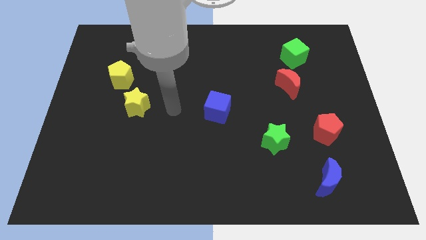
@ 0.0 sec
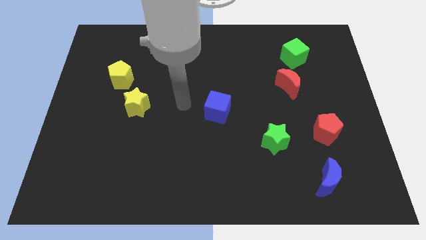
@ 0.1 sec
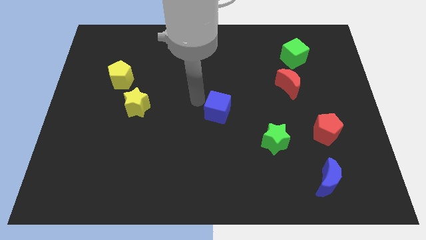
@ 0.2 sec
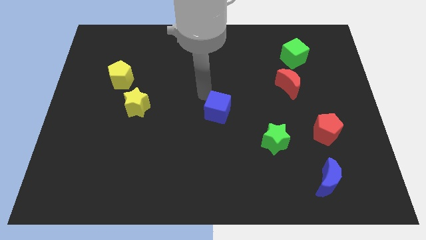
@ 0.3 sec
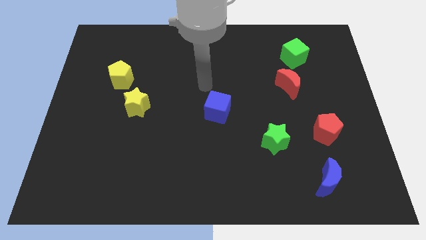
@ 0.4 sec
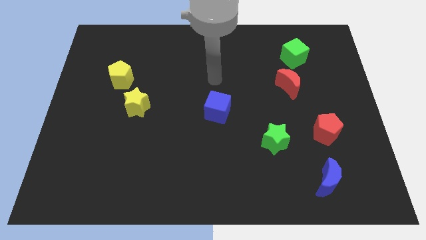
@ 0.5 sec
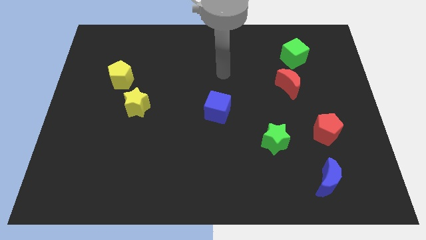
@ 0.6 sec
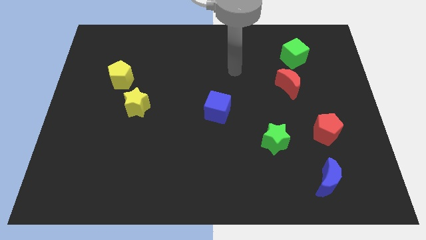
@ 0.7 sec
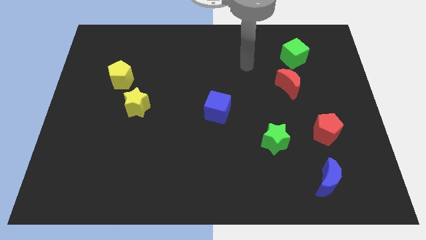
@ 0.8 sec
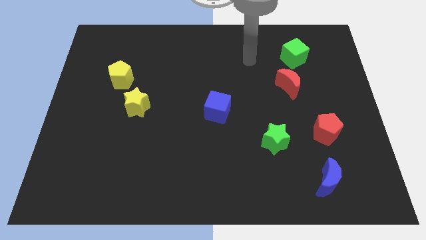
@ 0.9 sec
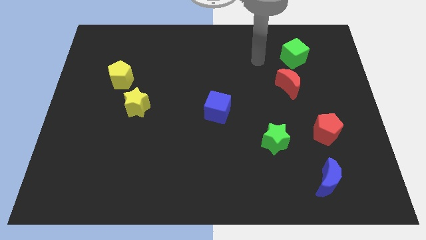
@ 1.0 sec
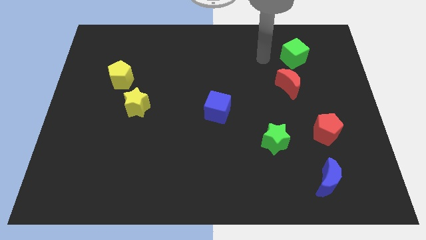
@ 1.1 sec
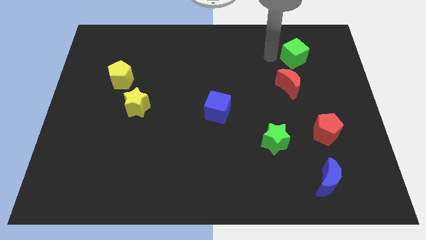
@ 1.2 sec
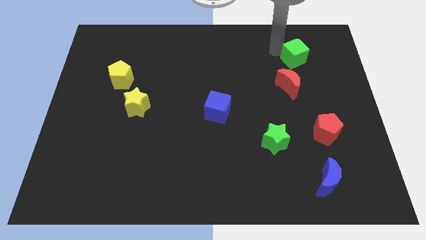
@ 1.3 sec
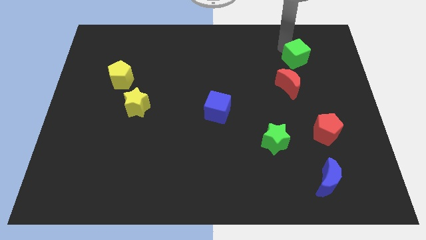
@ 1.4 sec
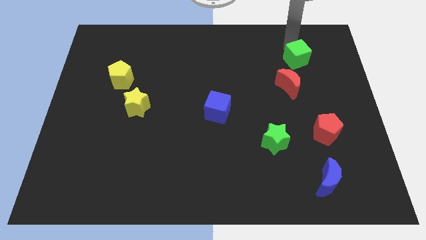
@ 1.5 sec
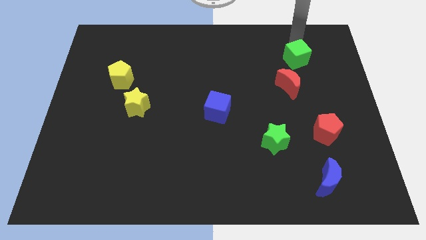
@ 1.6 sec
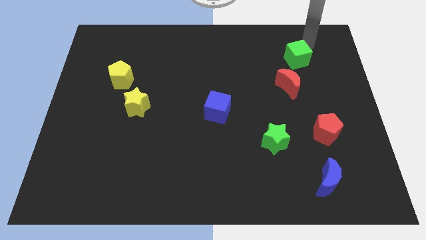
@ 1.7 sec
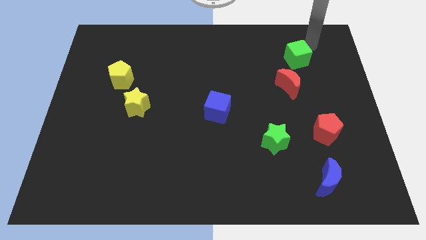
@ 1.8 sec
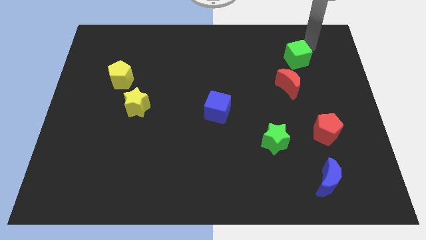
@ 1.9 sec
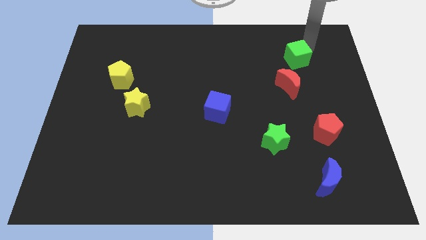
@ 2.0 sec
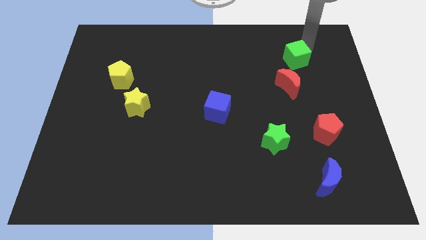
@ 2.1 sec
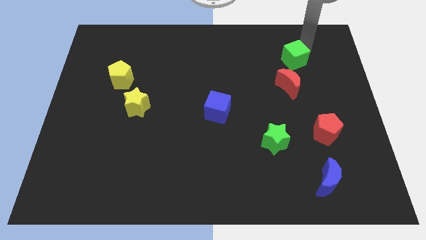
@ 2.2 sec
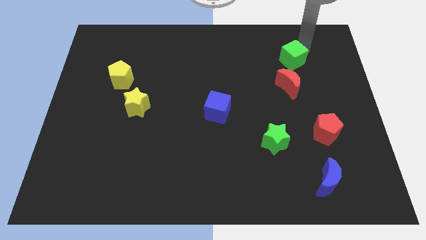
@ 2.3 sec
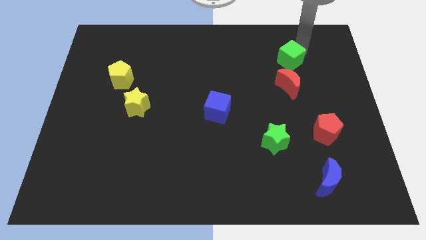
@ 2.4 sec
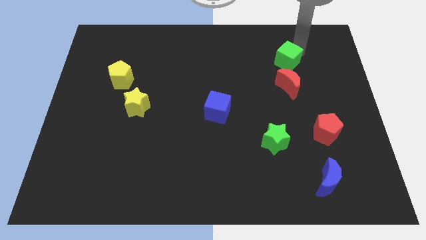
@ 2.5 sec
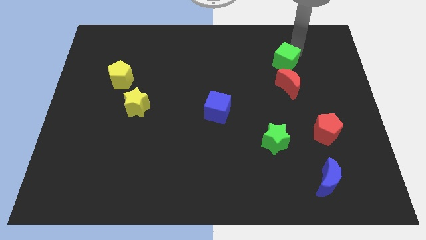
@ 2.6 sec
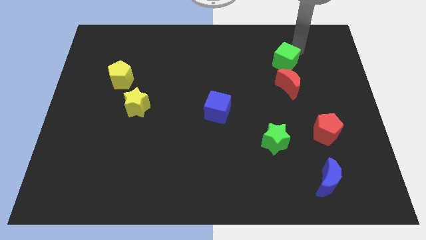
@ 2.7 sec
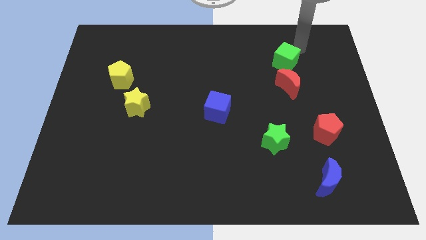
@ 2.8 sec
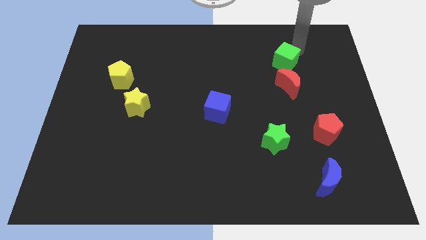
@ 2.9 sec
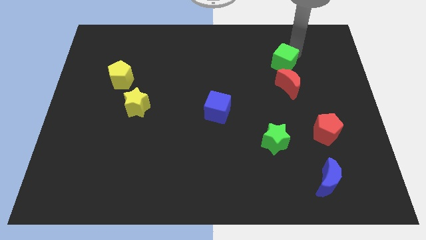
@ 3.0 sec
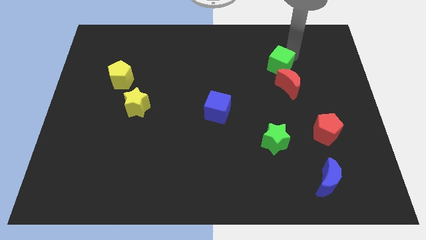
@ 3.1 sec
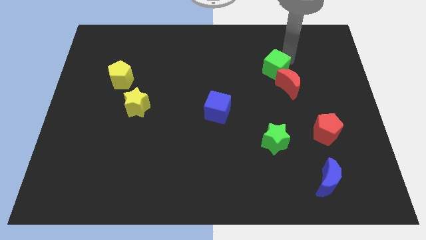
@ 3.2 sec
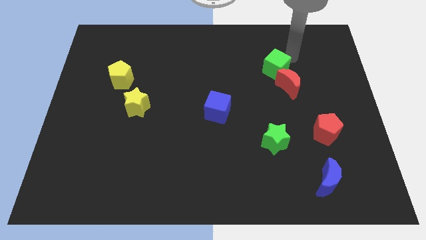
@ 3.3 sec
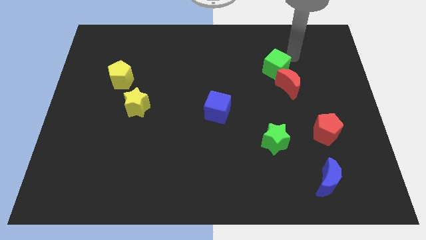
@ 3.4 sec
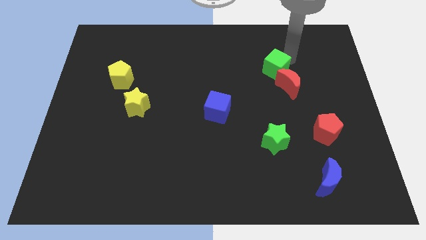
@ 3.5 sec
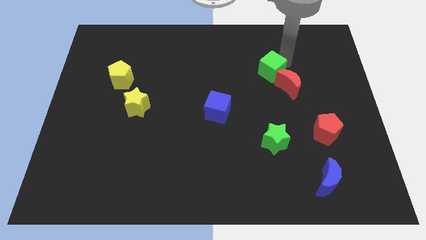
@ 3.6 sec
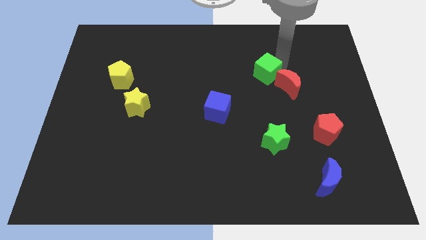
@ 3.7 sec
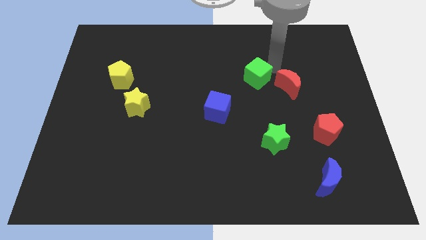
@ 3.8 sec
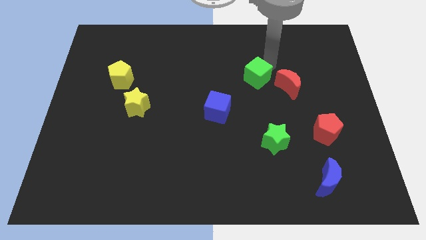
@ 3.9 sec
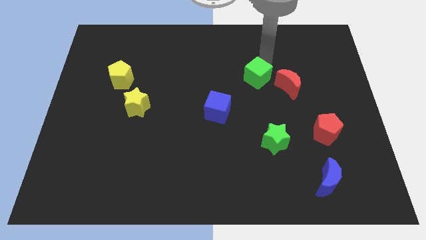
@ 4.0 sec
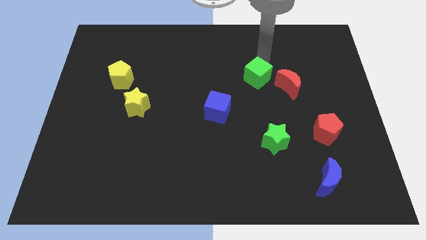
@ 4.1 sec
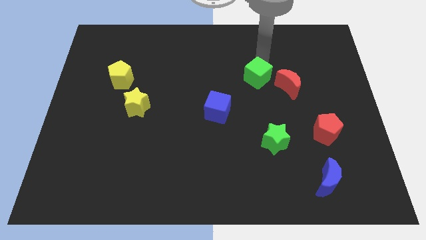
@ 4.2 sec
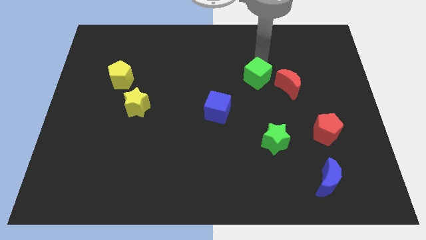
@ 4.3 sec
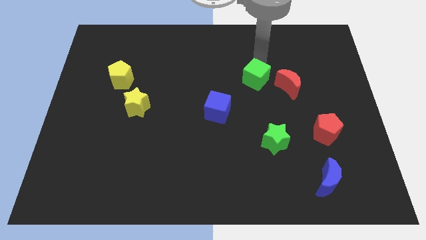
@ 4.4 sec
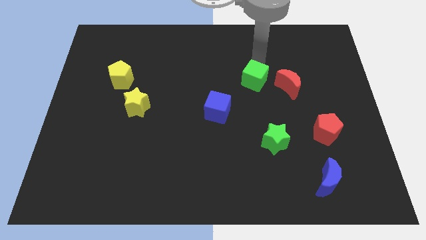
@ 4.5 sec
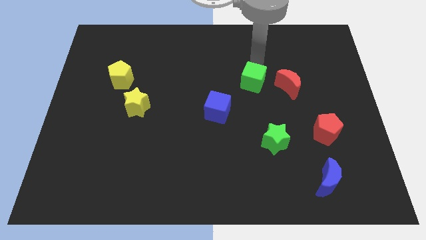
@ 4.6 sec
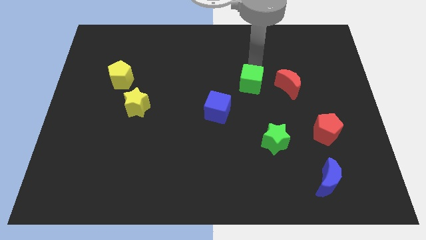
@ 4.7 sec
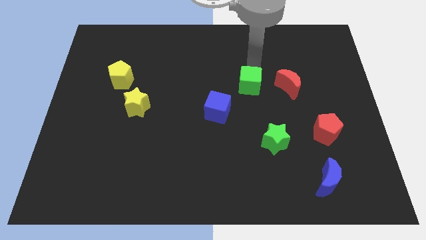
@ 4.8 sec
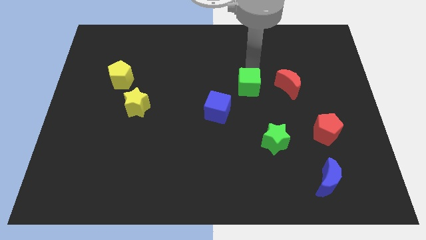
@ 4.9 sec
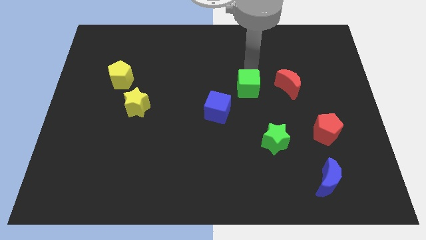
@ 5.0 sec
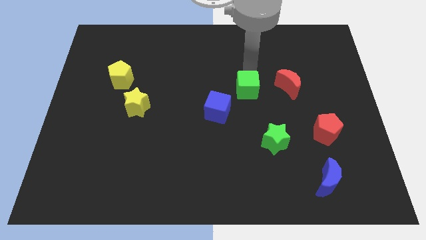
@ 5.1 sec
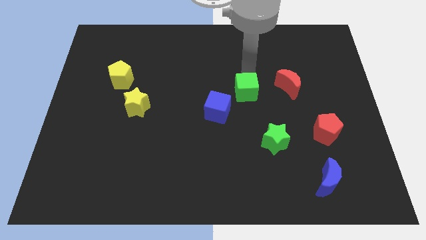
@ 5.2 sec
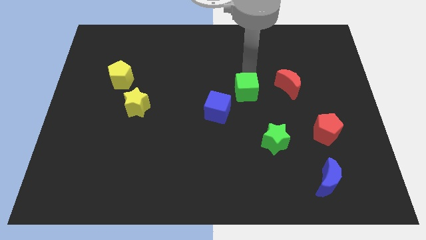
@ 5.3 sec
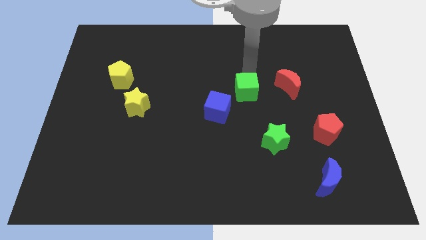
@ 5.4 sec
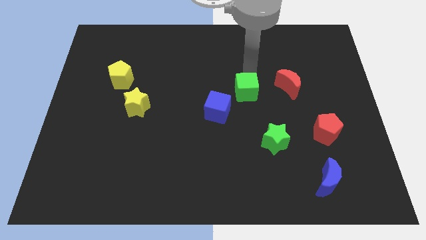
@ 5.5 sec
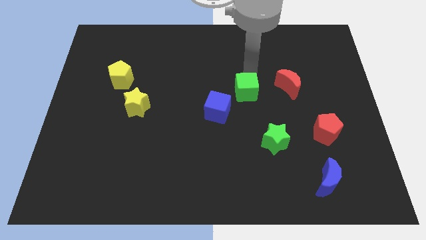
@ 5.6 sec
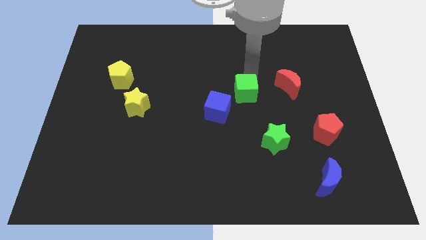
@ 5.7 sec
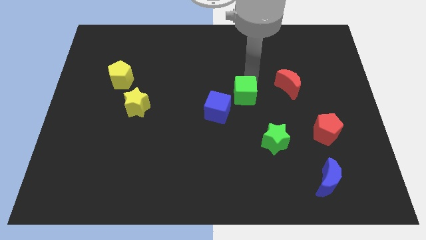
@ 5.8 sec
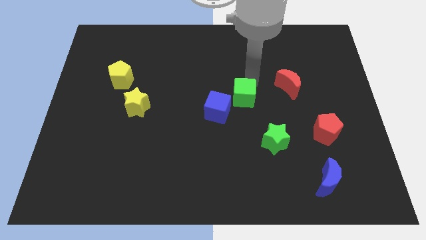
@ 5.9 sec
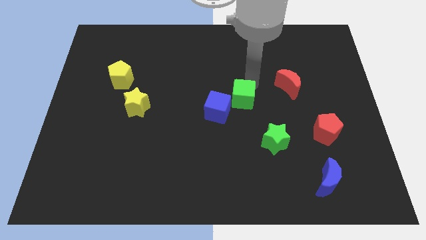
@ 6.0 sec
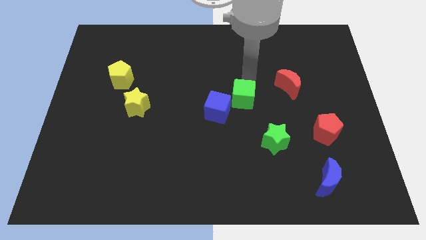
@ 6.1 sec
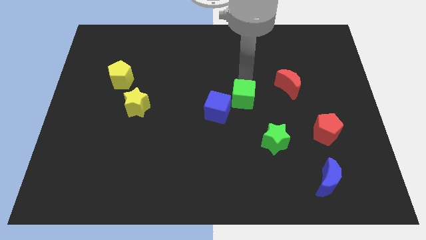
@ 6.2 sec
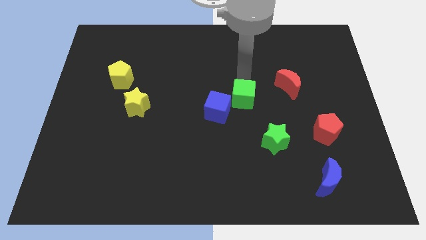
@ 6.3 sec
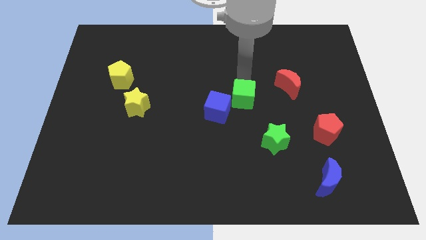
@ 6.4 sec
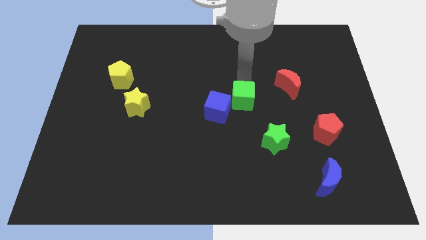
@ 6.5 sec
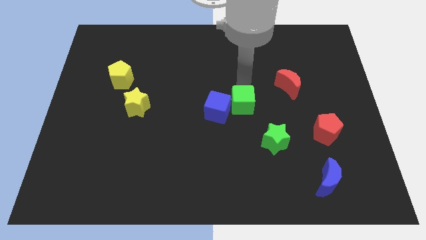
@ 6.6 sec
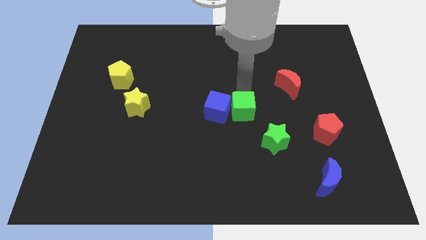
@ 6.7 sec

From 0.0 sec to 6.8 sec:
move the green cube diagonally down and to the right of the blue cube

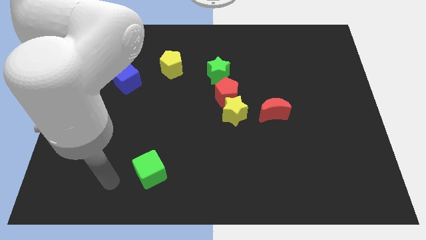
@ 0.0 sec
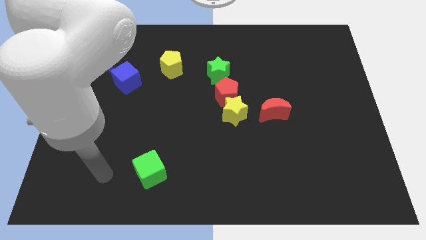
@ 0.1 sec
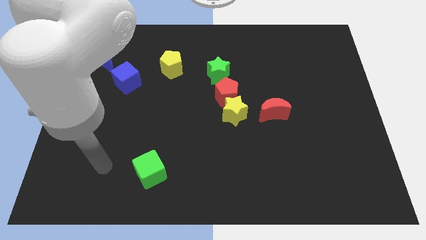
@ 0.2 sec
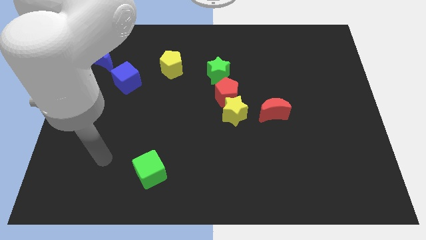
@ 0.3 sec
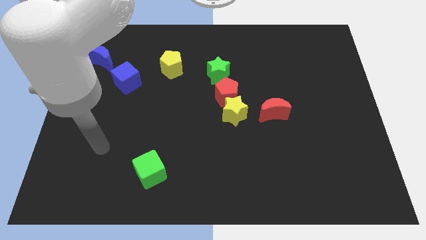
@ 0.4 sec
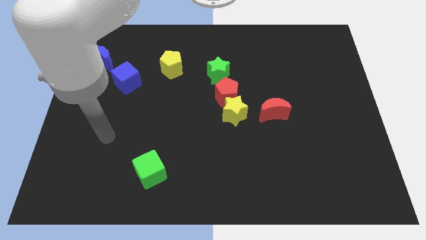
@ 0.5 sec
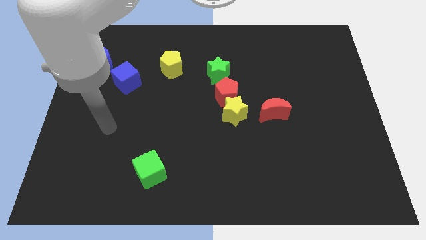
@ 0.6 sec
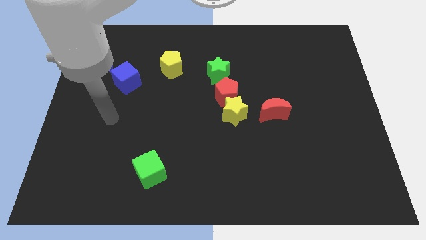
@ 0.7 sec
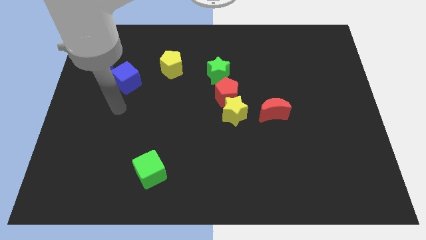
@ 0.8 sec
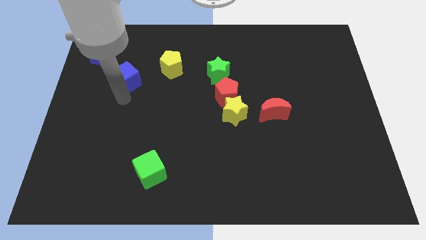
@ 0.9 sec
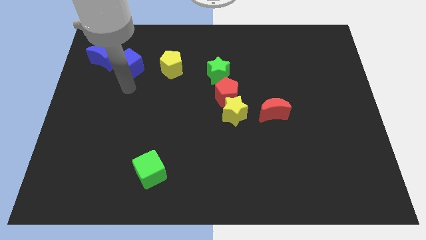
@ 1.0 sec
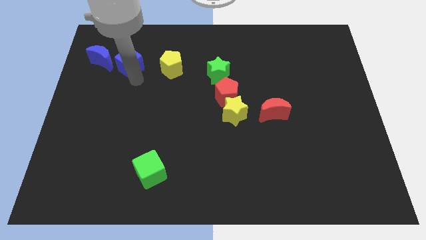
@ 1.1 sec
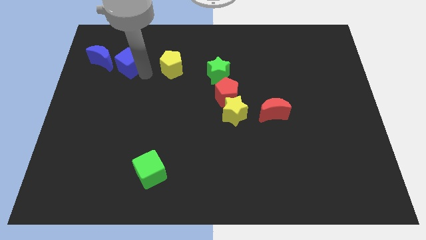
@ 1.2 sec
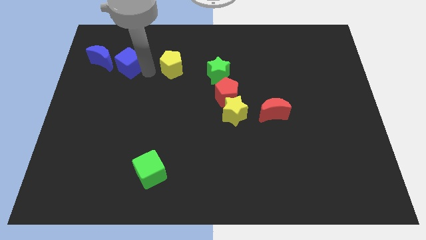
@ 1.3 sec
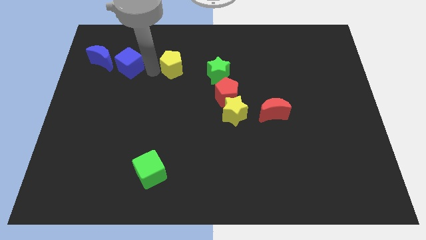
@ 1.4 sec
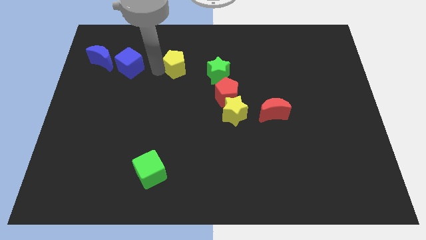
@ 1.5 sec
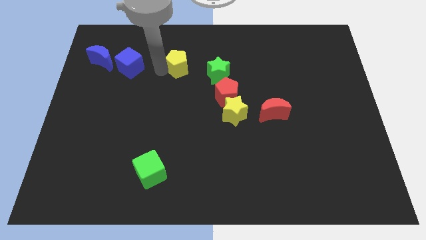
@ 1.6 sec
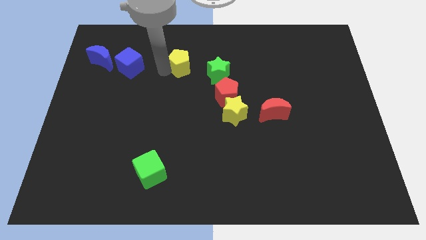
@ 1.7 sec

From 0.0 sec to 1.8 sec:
move the yellow pentagon to the top left side of the green star
